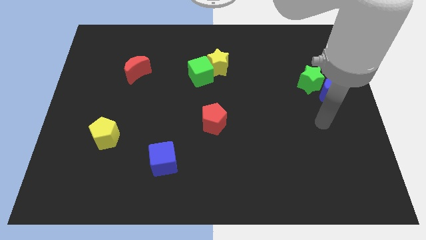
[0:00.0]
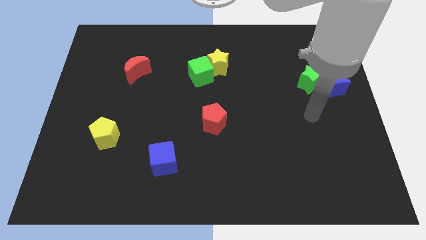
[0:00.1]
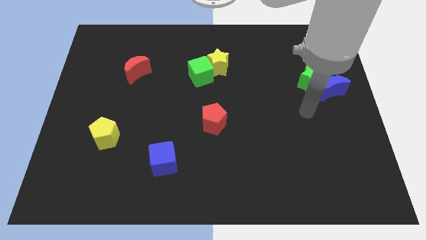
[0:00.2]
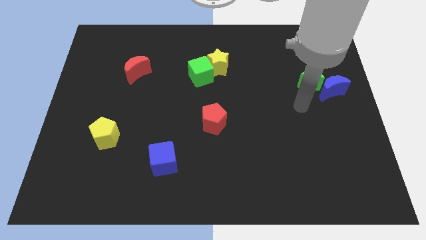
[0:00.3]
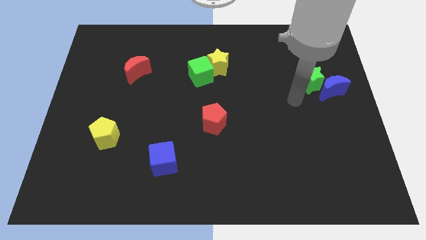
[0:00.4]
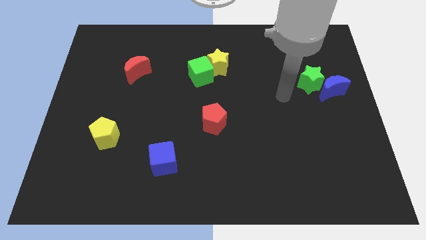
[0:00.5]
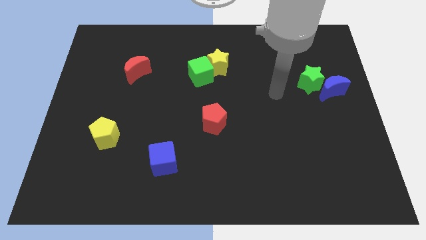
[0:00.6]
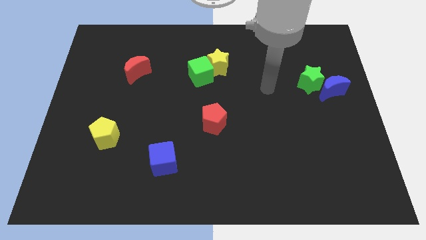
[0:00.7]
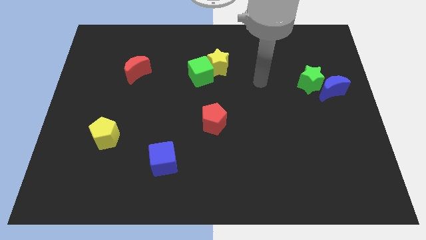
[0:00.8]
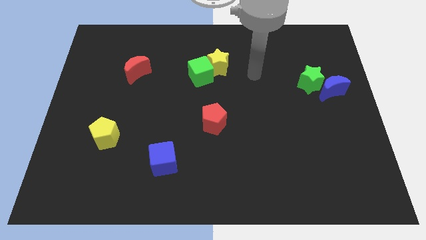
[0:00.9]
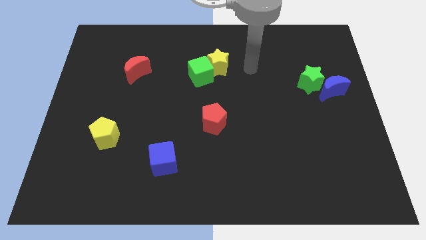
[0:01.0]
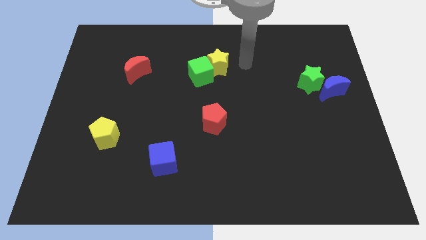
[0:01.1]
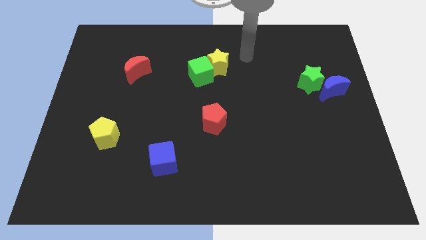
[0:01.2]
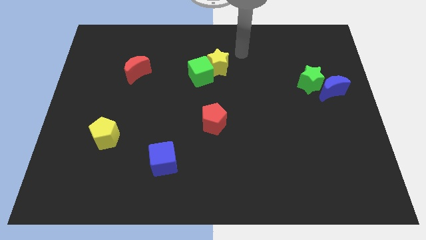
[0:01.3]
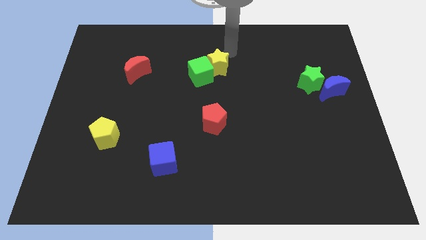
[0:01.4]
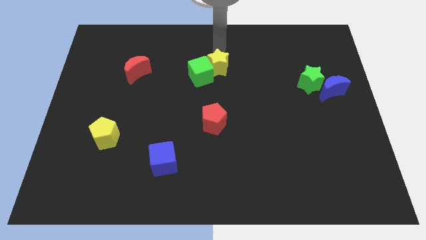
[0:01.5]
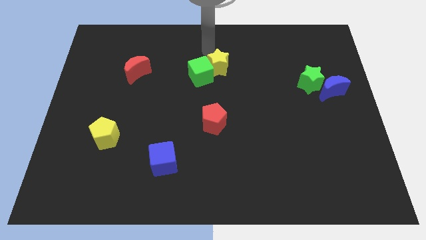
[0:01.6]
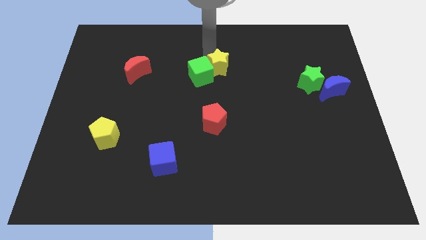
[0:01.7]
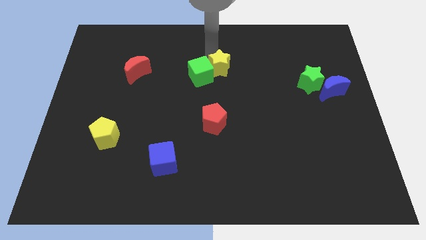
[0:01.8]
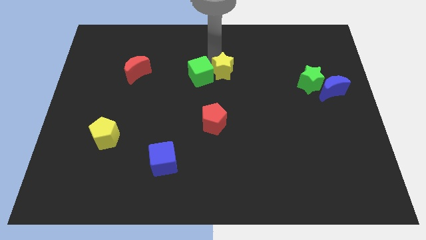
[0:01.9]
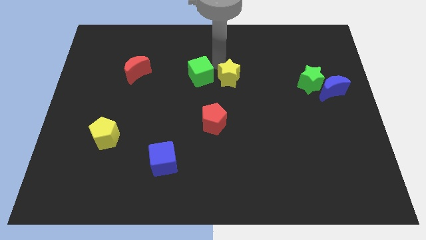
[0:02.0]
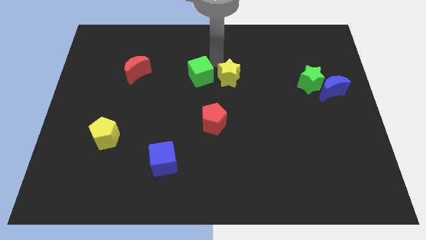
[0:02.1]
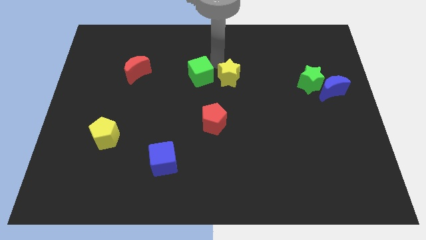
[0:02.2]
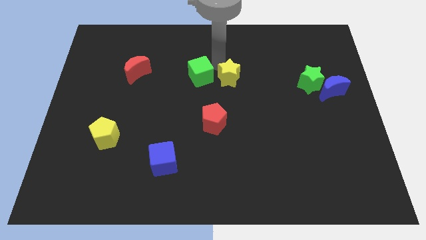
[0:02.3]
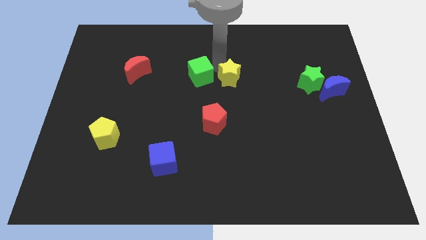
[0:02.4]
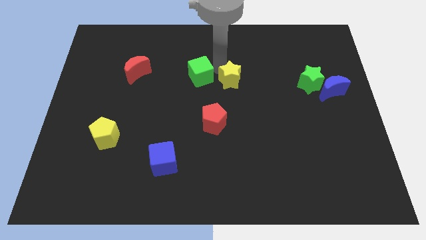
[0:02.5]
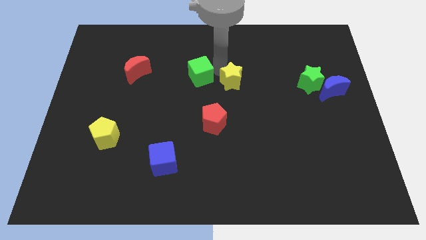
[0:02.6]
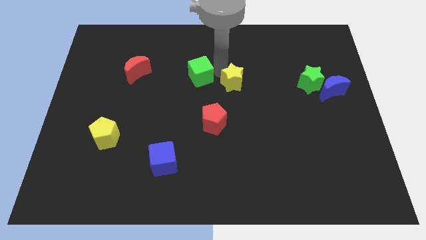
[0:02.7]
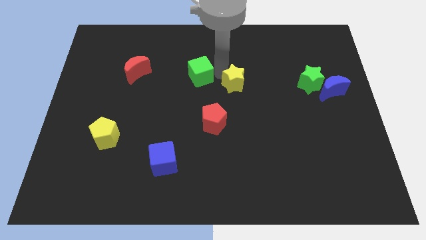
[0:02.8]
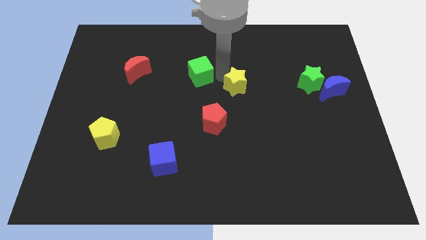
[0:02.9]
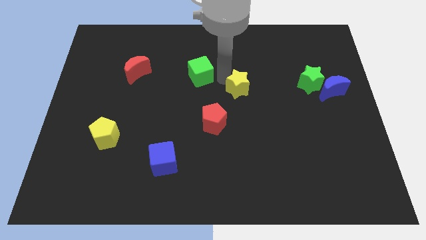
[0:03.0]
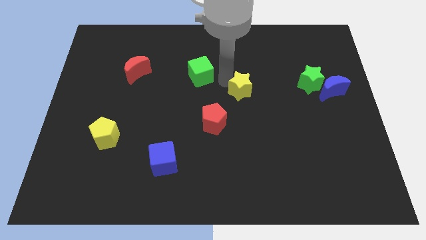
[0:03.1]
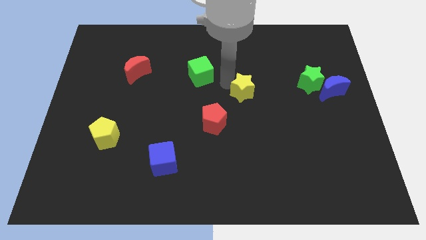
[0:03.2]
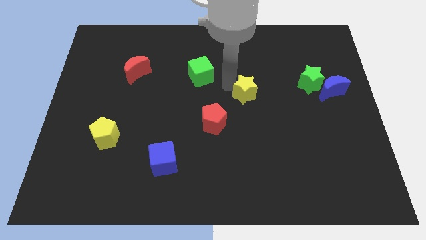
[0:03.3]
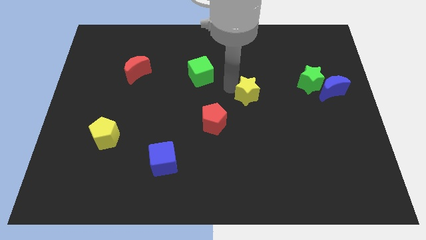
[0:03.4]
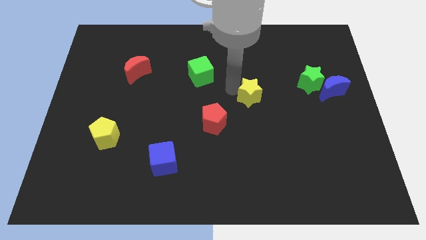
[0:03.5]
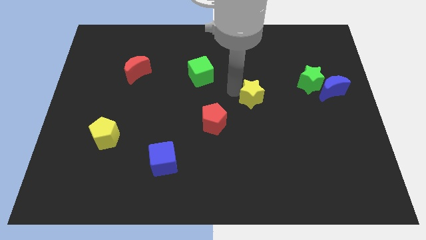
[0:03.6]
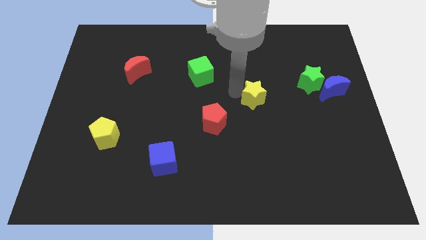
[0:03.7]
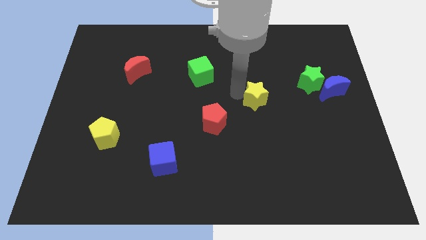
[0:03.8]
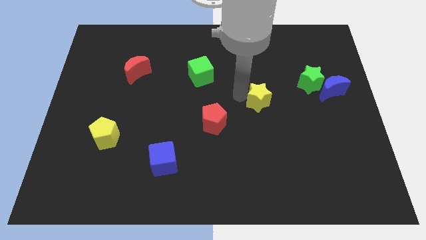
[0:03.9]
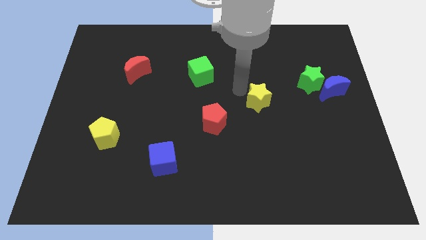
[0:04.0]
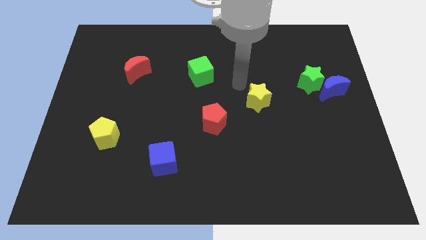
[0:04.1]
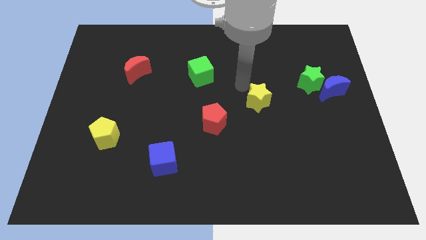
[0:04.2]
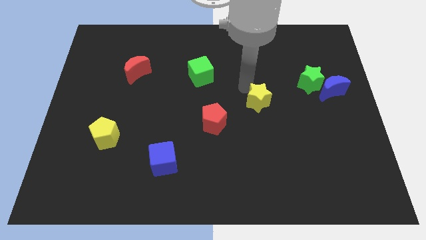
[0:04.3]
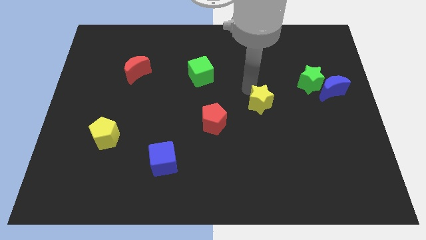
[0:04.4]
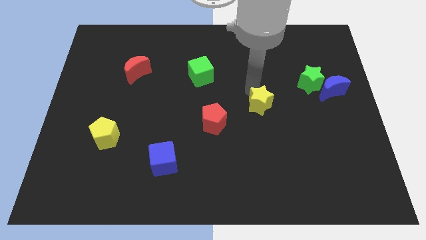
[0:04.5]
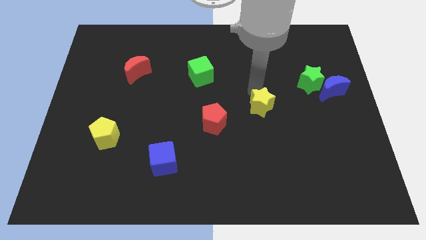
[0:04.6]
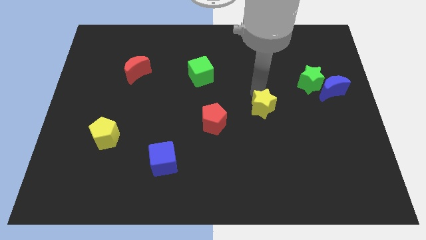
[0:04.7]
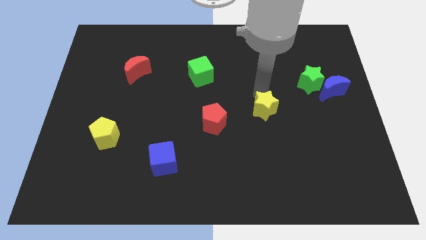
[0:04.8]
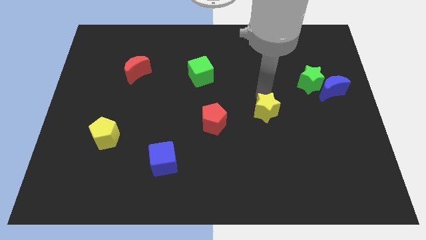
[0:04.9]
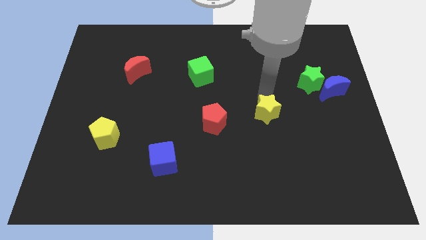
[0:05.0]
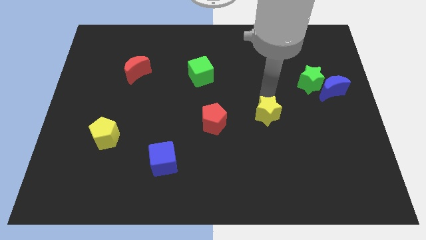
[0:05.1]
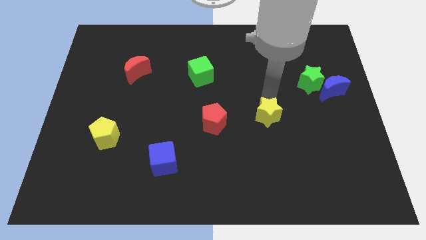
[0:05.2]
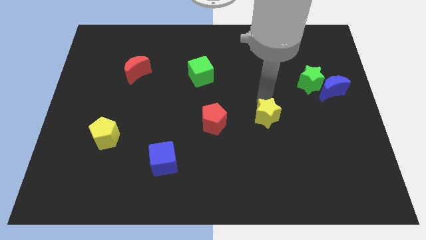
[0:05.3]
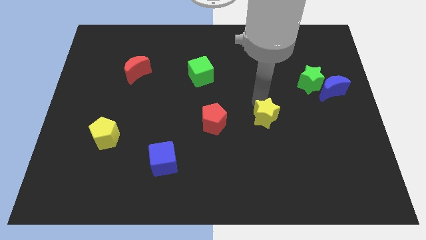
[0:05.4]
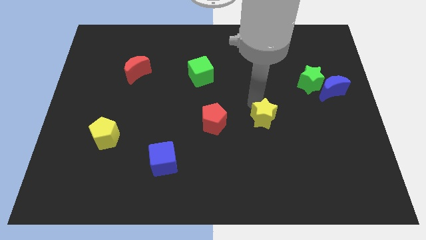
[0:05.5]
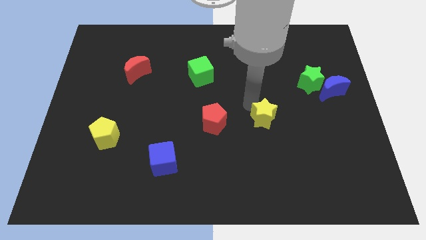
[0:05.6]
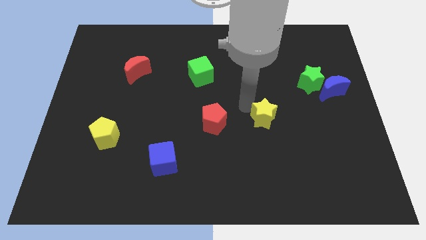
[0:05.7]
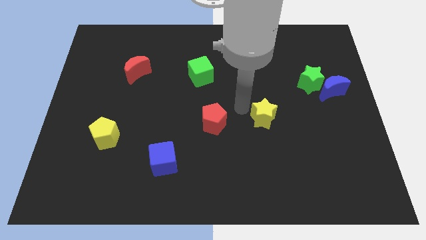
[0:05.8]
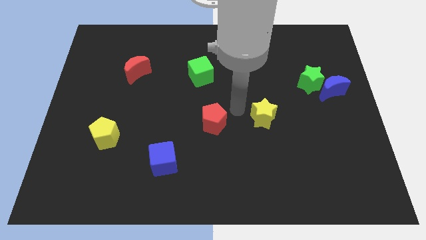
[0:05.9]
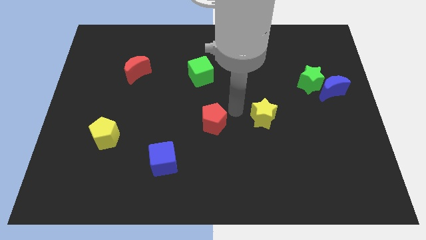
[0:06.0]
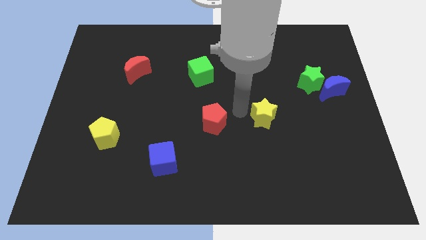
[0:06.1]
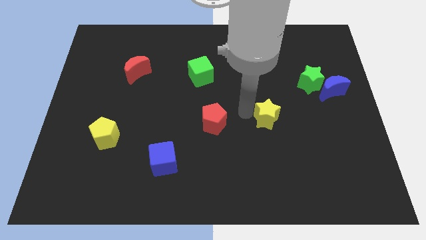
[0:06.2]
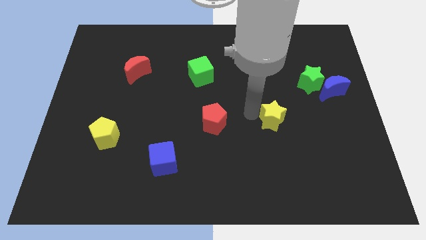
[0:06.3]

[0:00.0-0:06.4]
move the yellow star down and then to the right

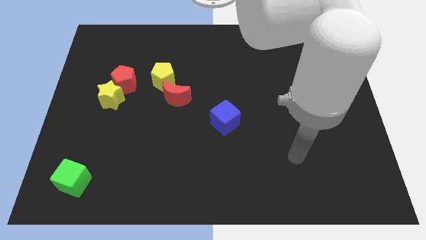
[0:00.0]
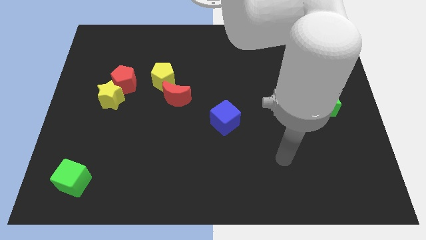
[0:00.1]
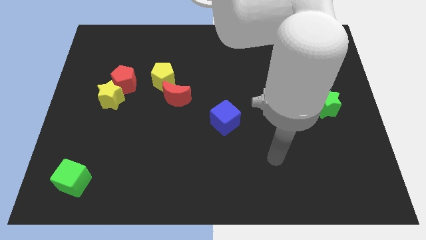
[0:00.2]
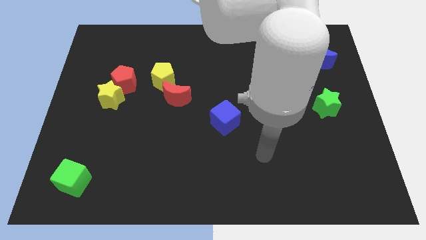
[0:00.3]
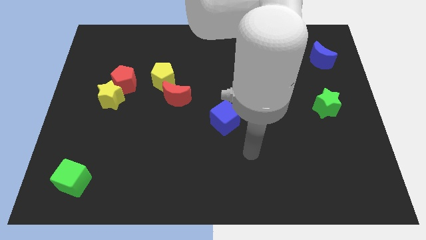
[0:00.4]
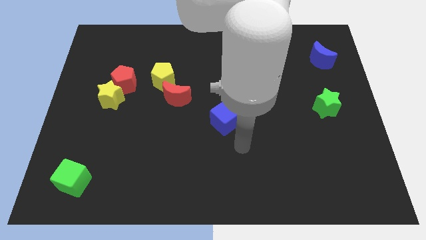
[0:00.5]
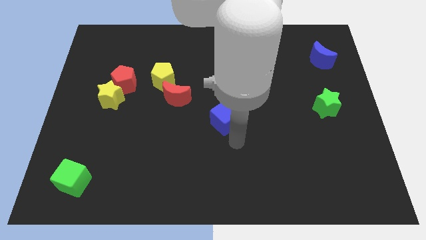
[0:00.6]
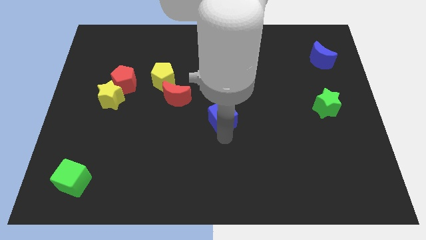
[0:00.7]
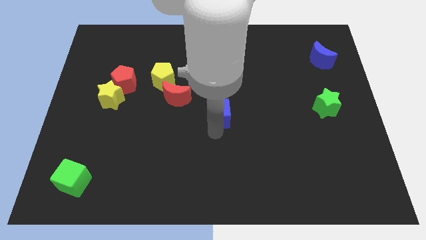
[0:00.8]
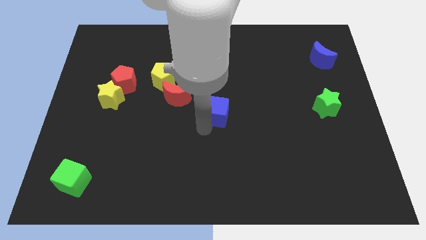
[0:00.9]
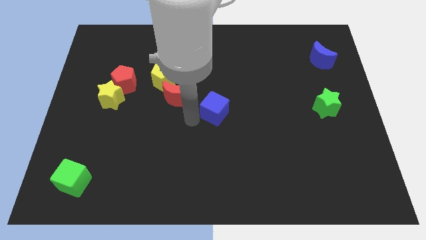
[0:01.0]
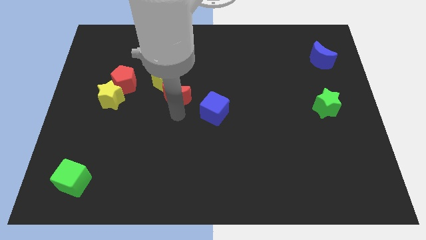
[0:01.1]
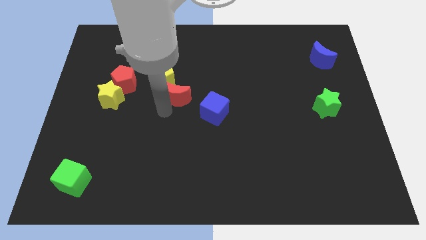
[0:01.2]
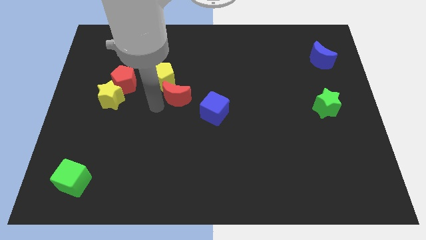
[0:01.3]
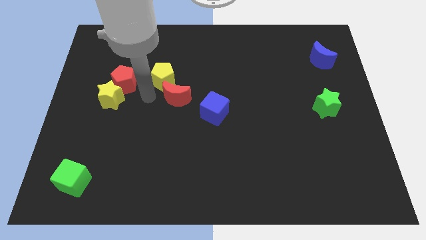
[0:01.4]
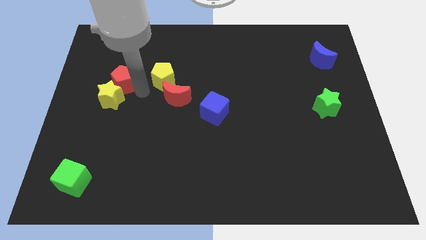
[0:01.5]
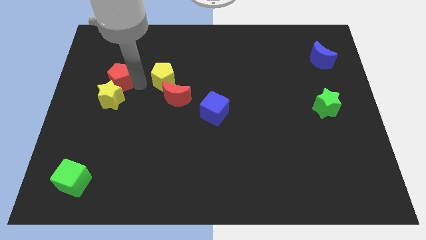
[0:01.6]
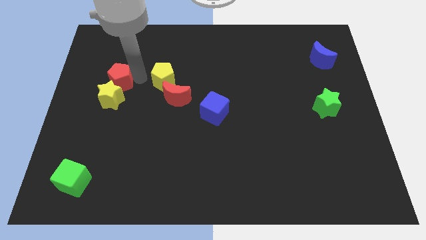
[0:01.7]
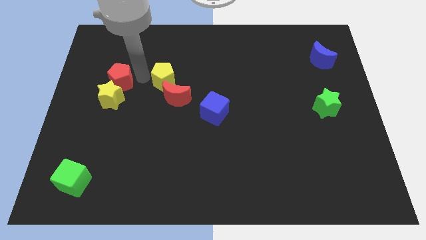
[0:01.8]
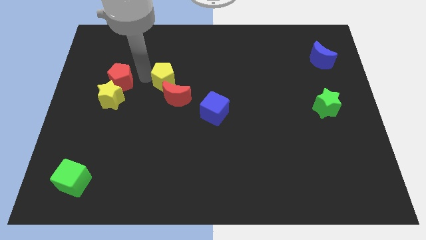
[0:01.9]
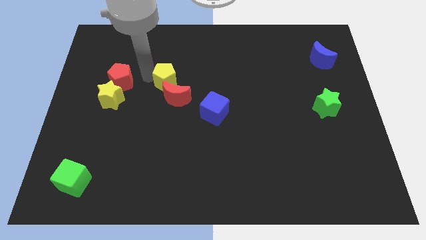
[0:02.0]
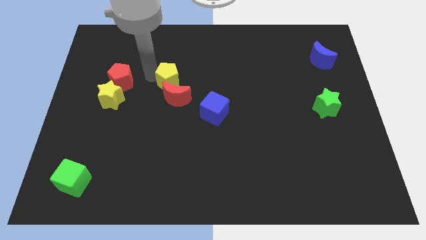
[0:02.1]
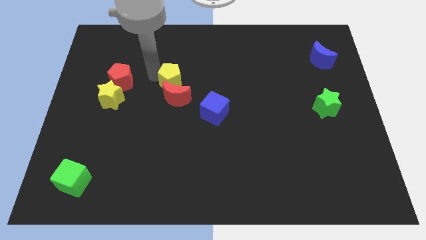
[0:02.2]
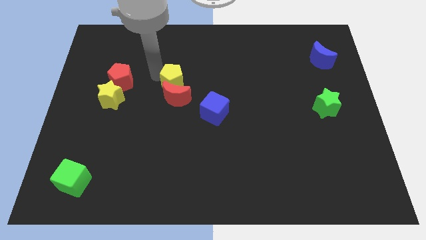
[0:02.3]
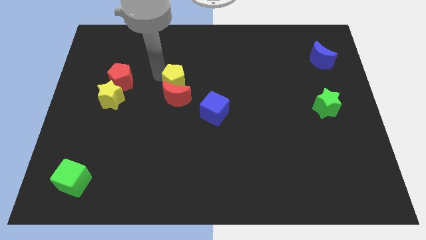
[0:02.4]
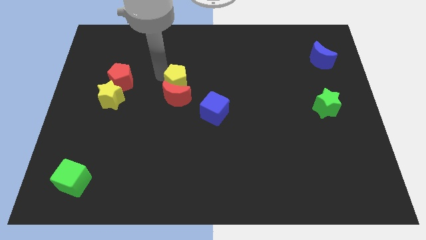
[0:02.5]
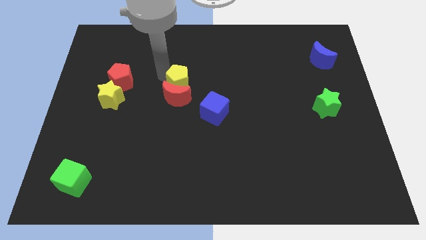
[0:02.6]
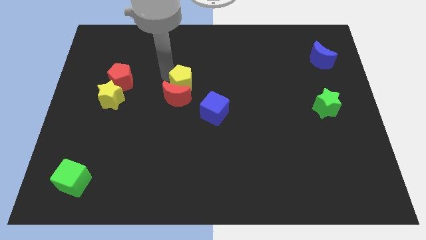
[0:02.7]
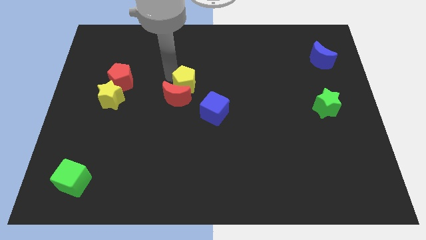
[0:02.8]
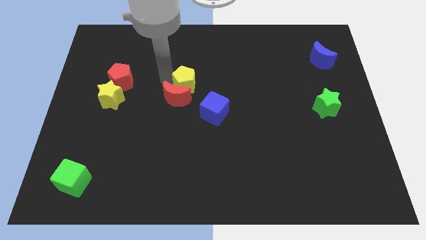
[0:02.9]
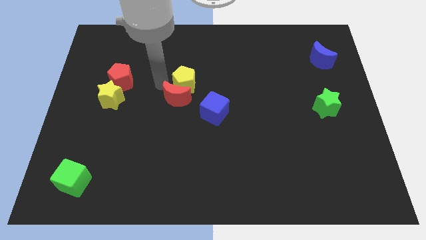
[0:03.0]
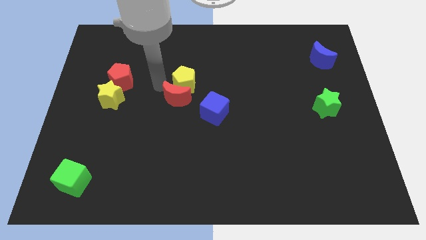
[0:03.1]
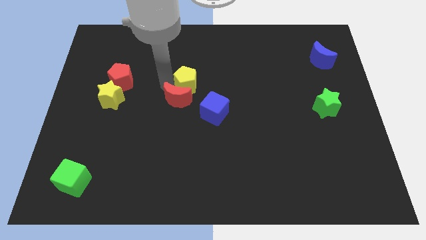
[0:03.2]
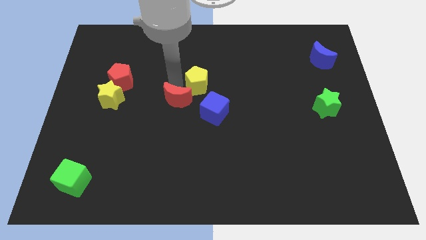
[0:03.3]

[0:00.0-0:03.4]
slide the yellow pentagon to the right a little bit
